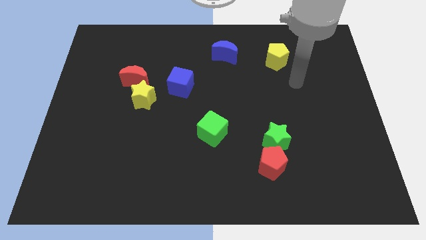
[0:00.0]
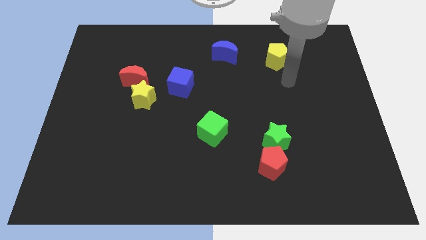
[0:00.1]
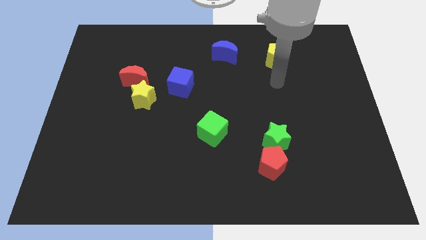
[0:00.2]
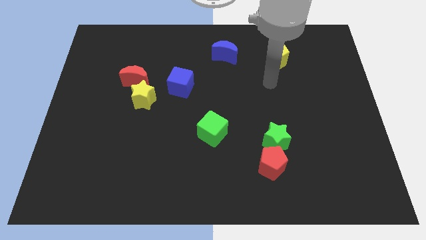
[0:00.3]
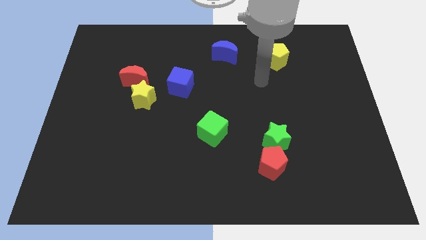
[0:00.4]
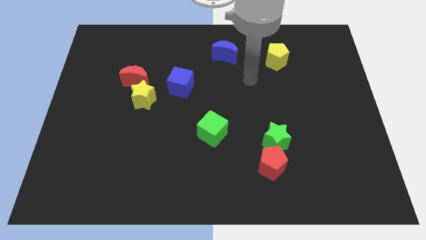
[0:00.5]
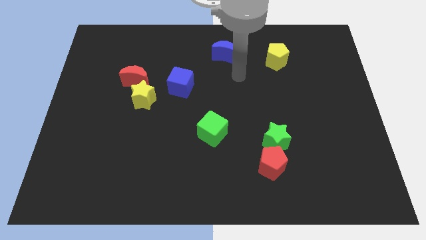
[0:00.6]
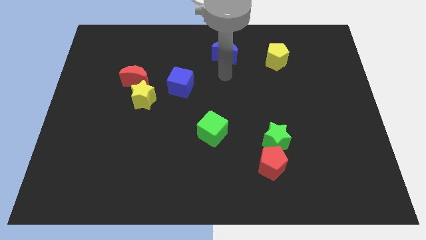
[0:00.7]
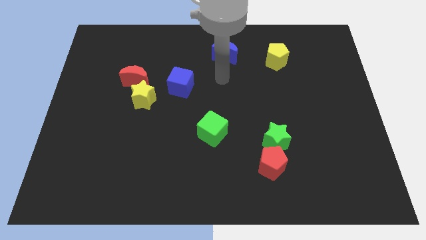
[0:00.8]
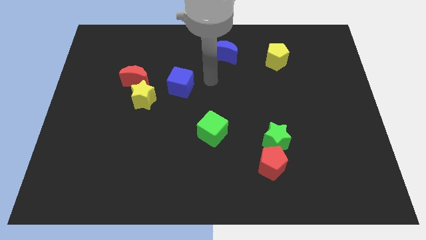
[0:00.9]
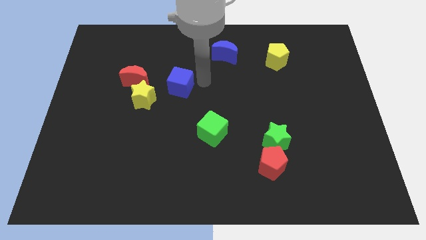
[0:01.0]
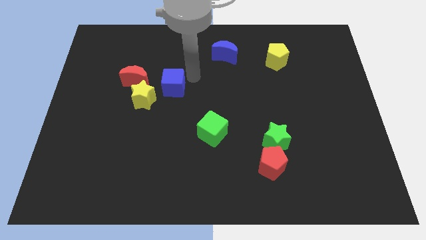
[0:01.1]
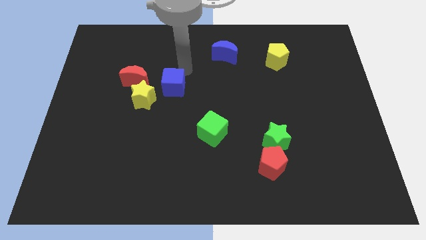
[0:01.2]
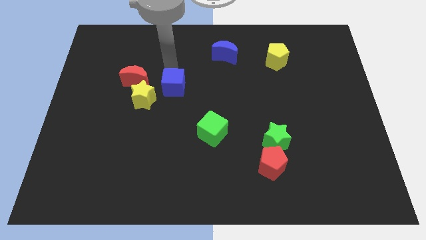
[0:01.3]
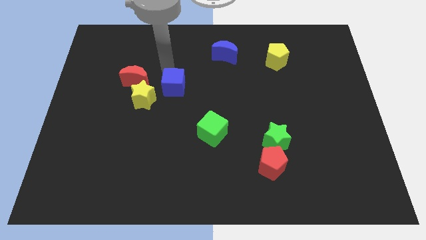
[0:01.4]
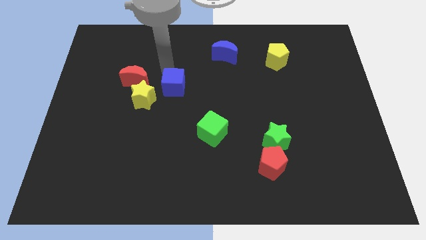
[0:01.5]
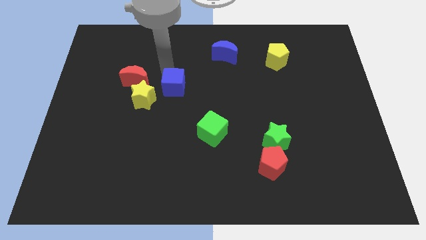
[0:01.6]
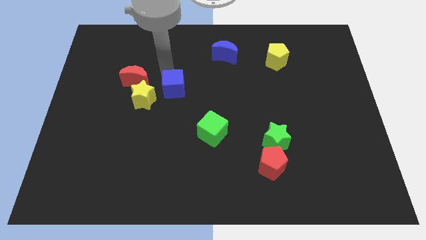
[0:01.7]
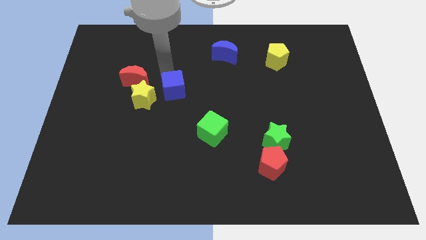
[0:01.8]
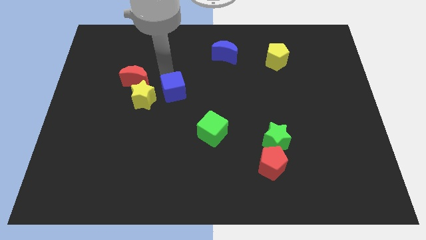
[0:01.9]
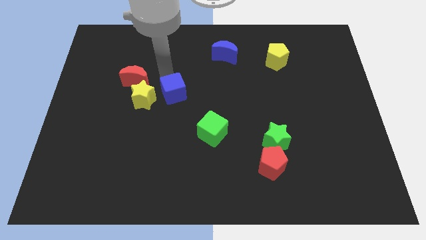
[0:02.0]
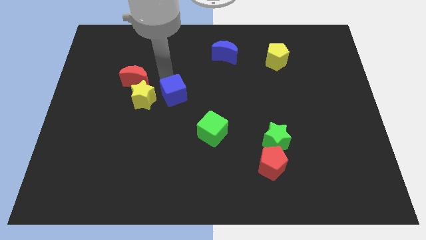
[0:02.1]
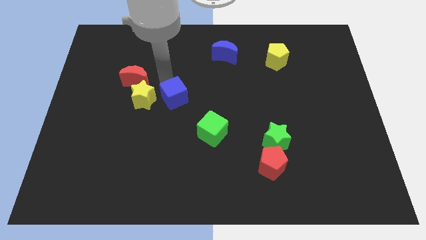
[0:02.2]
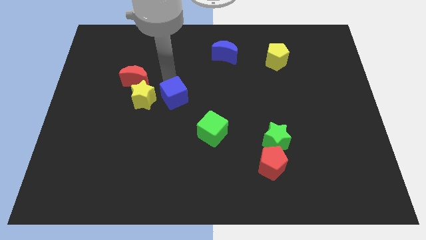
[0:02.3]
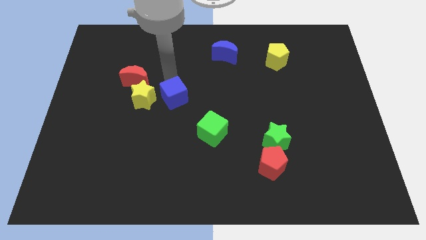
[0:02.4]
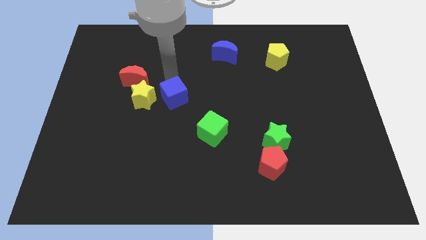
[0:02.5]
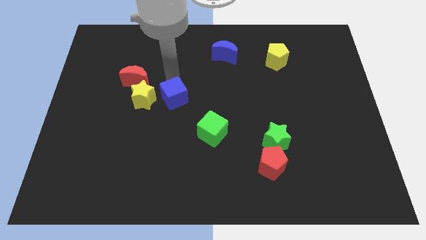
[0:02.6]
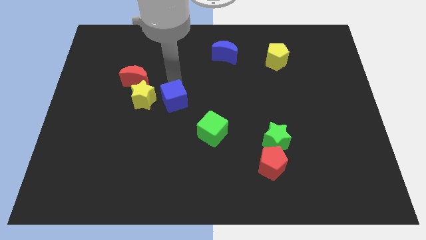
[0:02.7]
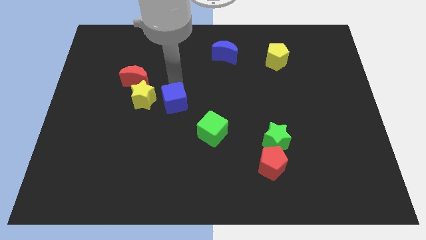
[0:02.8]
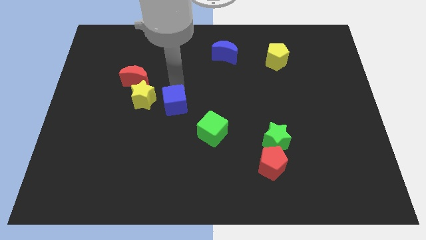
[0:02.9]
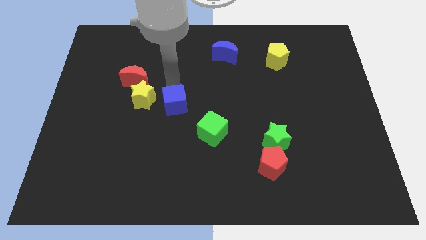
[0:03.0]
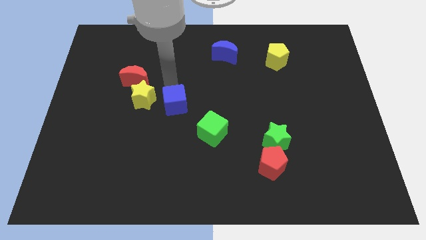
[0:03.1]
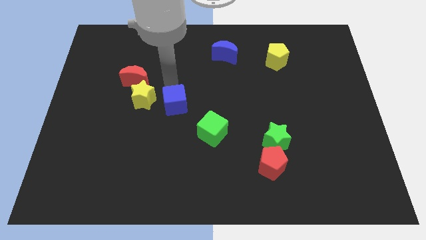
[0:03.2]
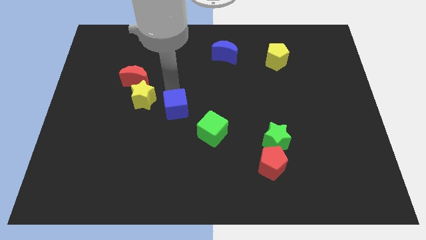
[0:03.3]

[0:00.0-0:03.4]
move the blue cube a little down

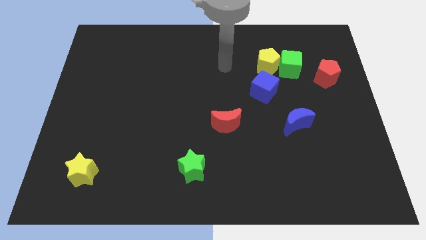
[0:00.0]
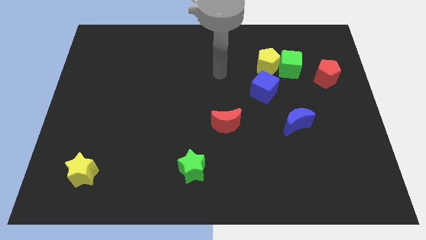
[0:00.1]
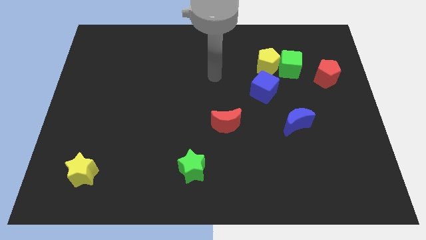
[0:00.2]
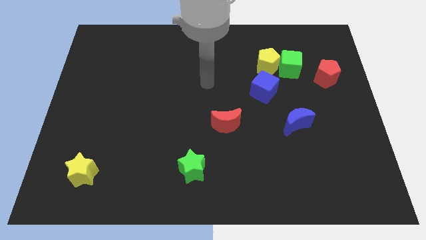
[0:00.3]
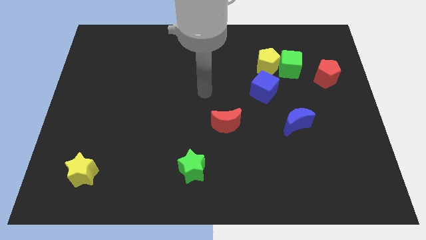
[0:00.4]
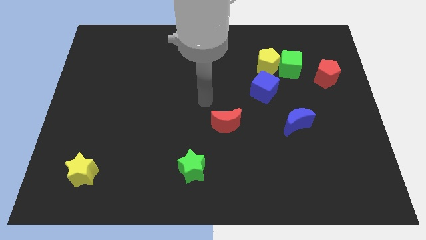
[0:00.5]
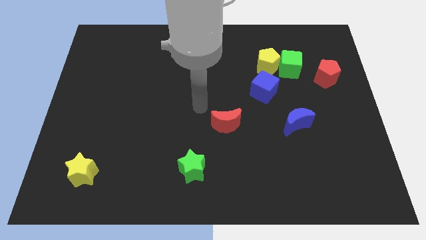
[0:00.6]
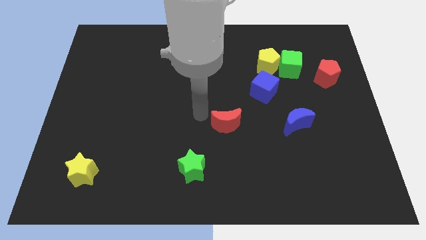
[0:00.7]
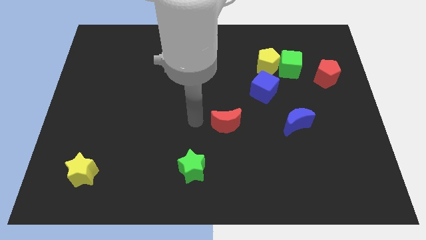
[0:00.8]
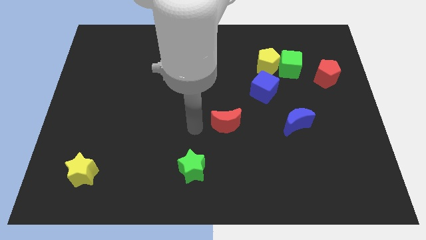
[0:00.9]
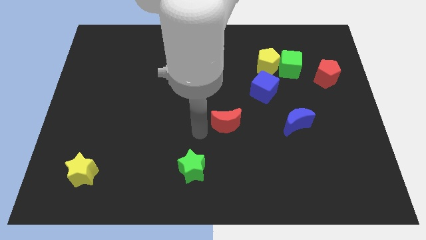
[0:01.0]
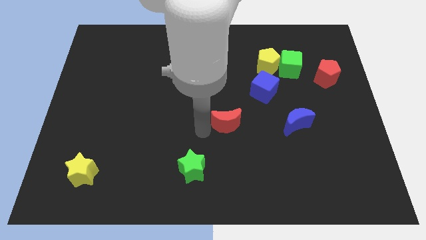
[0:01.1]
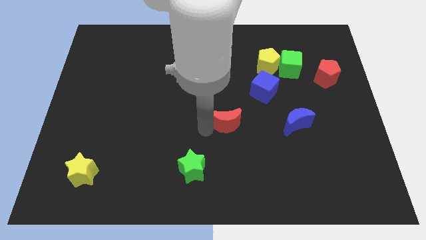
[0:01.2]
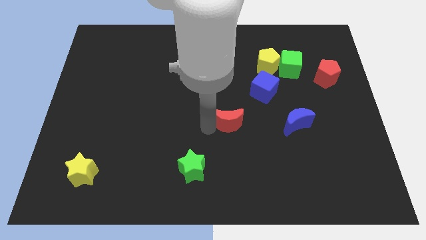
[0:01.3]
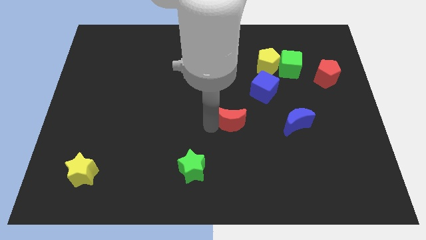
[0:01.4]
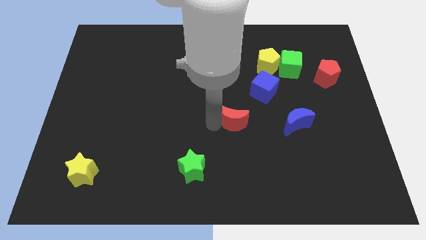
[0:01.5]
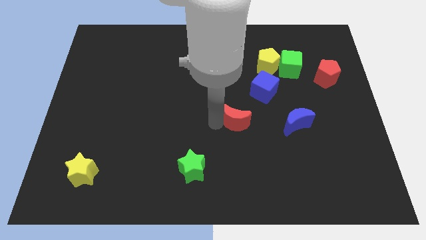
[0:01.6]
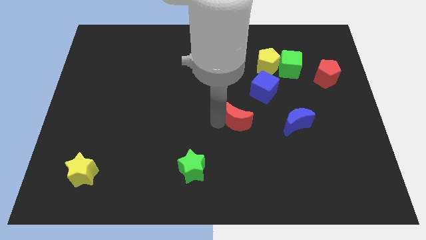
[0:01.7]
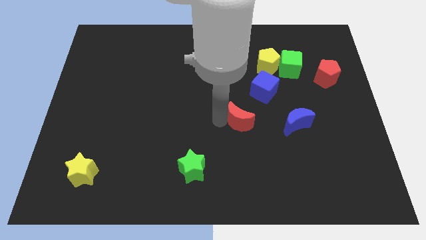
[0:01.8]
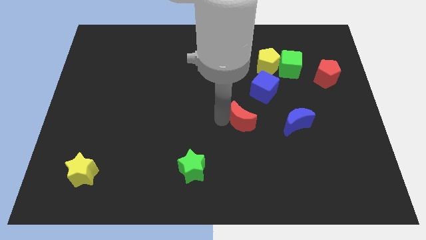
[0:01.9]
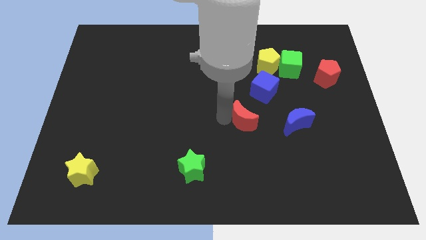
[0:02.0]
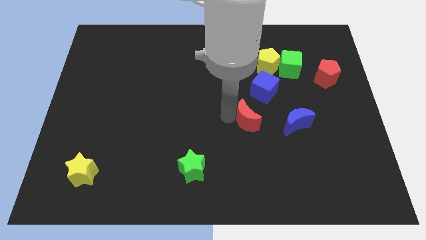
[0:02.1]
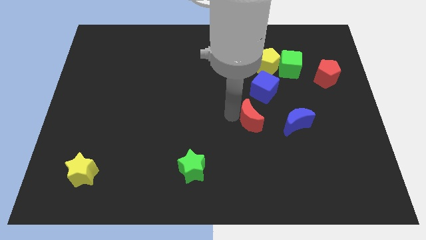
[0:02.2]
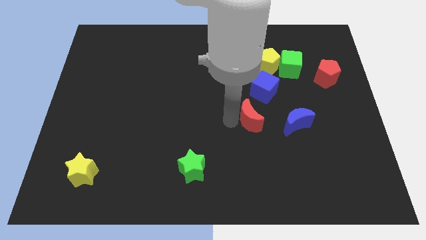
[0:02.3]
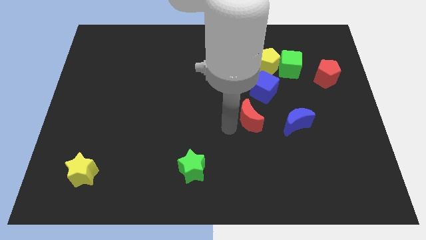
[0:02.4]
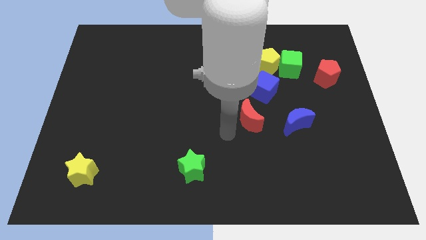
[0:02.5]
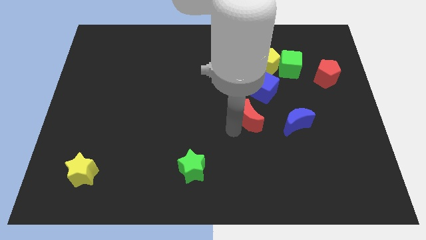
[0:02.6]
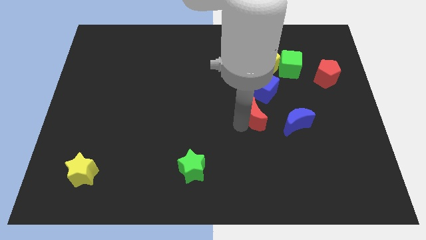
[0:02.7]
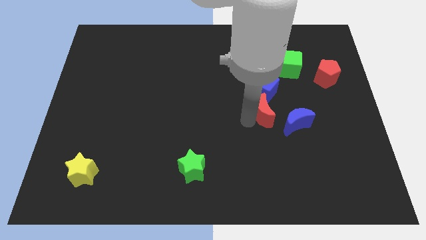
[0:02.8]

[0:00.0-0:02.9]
slightly slide the red moon upwards and right diagonally

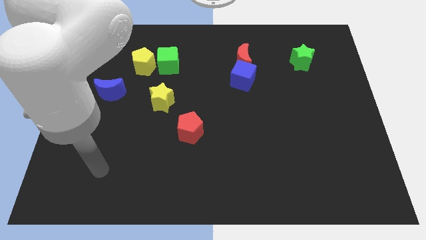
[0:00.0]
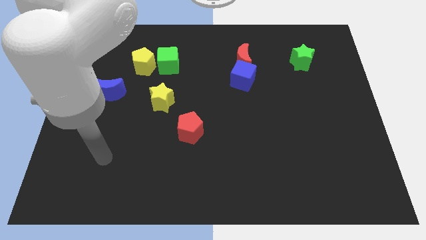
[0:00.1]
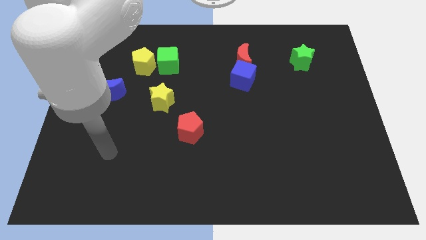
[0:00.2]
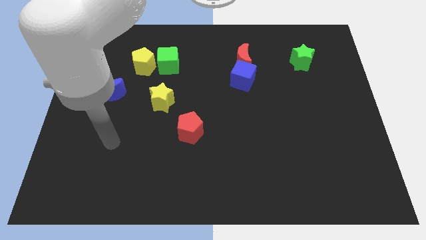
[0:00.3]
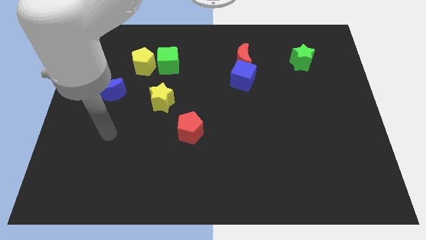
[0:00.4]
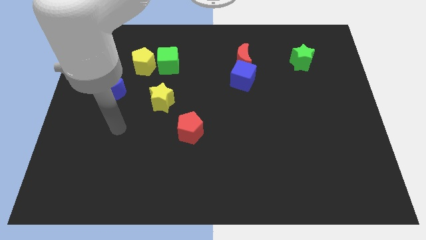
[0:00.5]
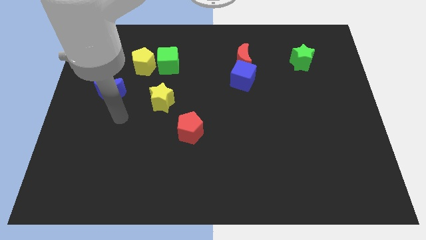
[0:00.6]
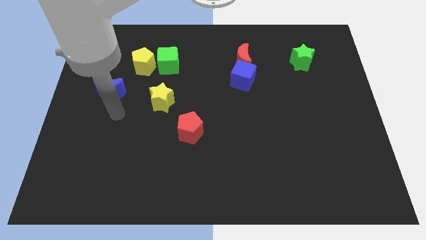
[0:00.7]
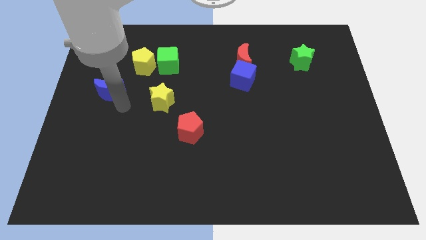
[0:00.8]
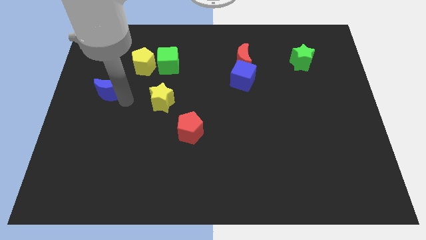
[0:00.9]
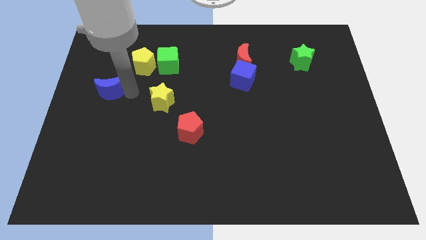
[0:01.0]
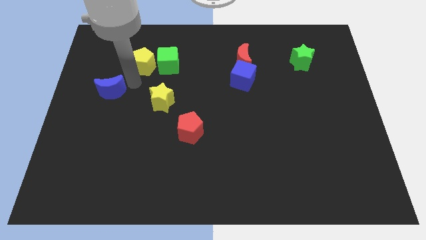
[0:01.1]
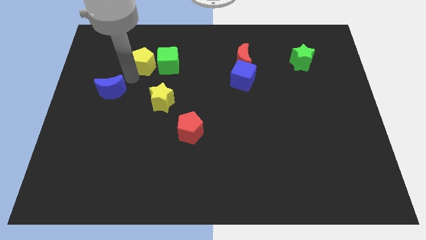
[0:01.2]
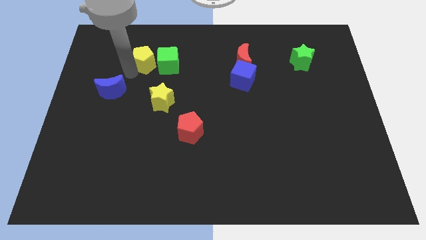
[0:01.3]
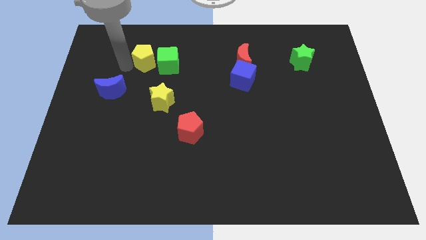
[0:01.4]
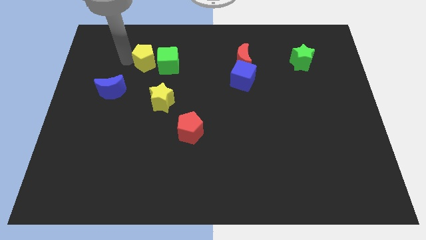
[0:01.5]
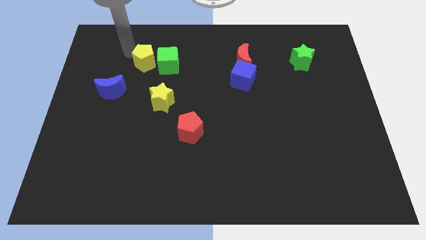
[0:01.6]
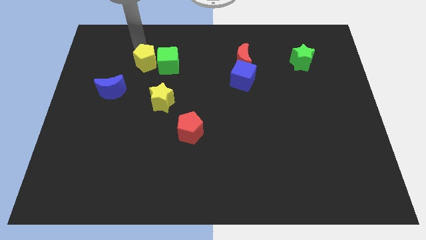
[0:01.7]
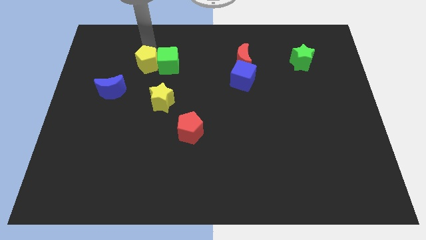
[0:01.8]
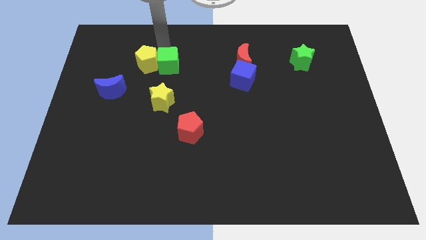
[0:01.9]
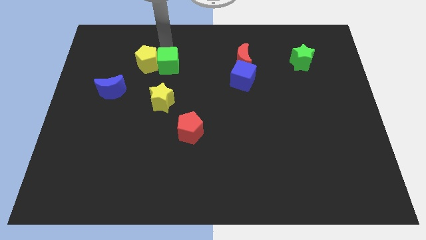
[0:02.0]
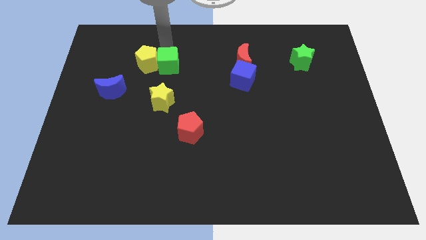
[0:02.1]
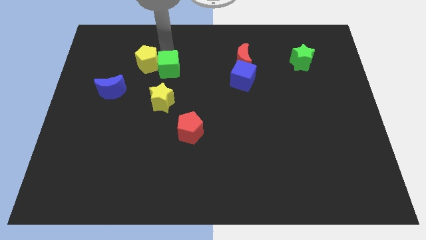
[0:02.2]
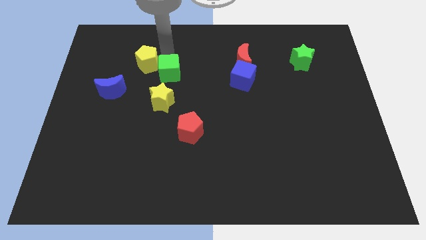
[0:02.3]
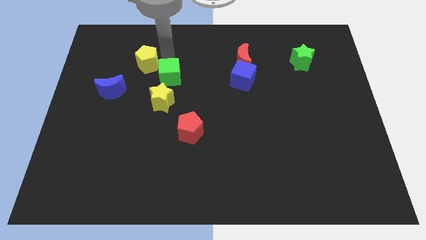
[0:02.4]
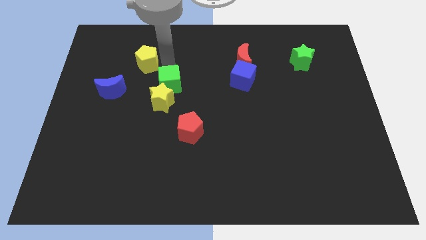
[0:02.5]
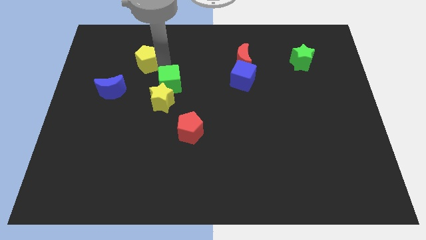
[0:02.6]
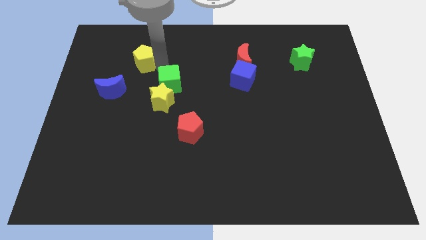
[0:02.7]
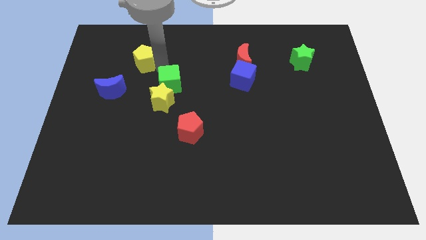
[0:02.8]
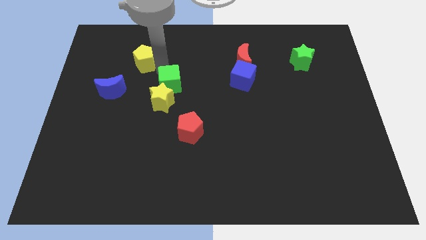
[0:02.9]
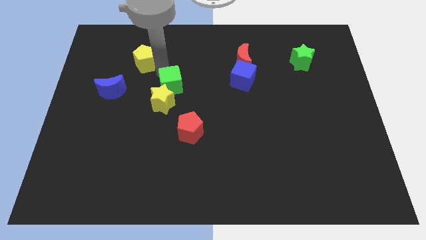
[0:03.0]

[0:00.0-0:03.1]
push the green cube a little bit down
